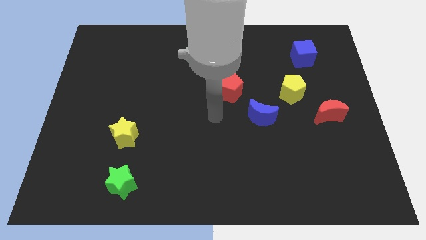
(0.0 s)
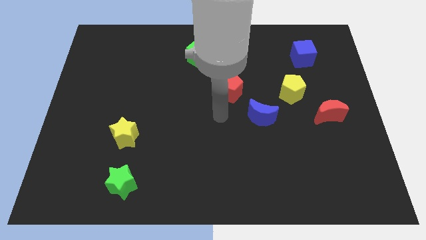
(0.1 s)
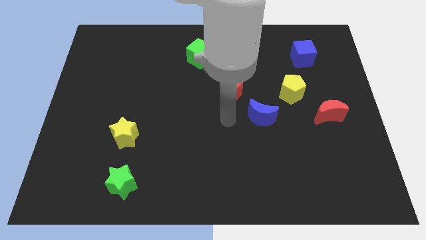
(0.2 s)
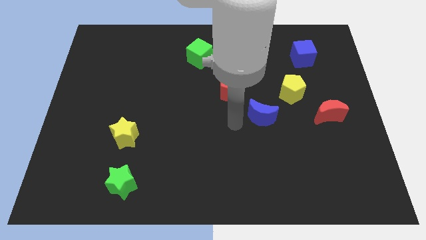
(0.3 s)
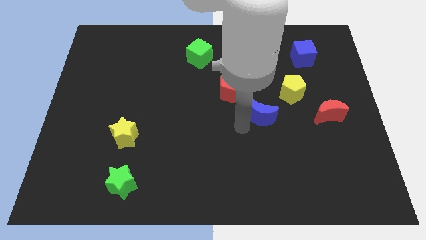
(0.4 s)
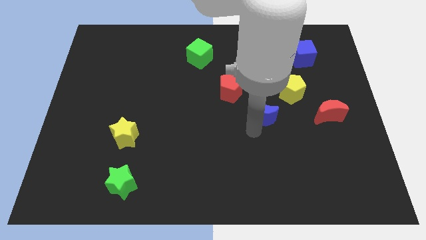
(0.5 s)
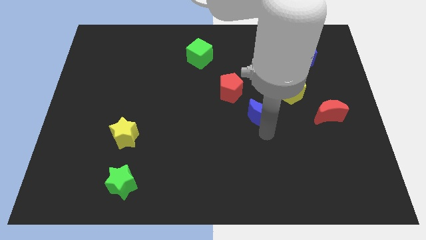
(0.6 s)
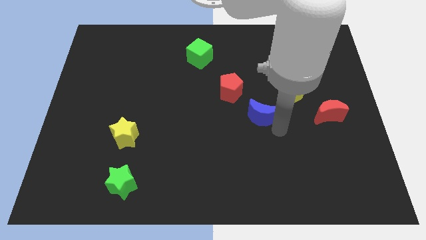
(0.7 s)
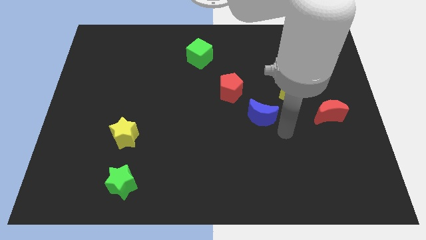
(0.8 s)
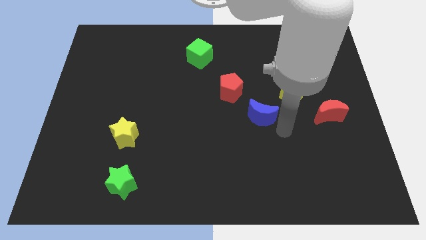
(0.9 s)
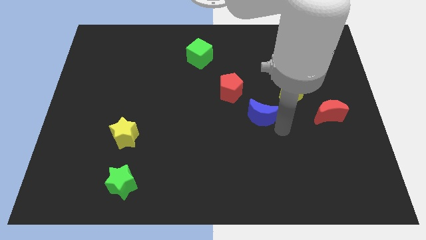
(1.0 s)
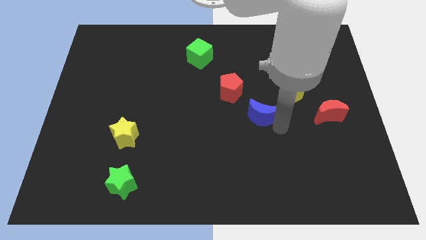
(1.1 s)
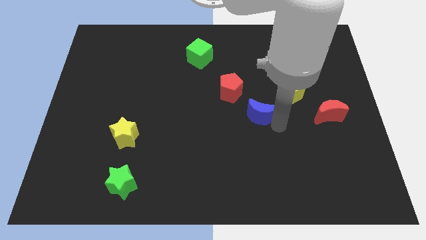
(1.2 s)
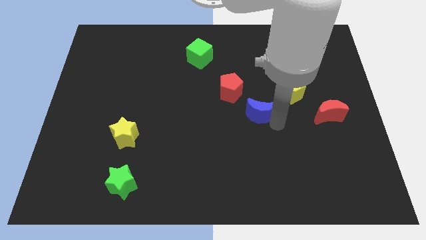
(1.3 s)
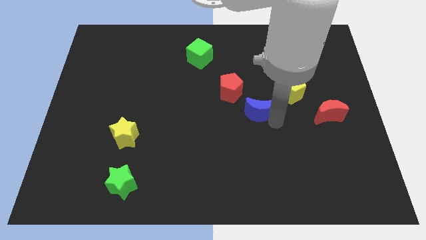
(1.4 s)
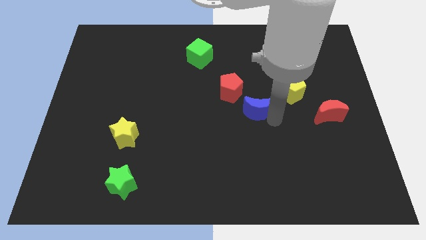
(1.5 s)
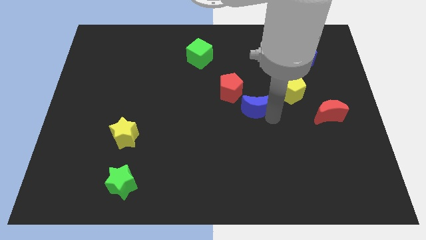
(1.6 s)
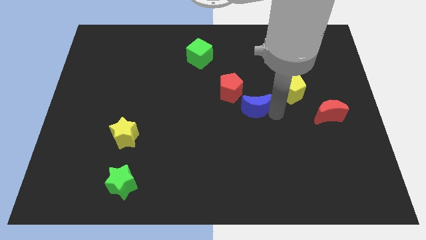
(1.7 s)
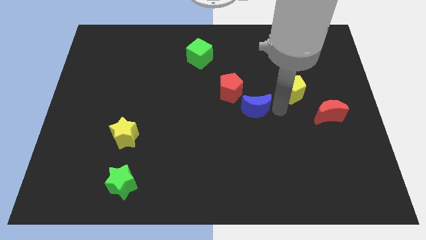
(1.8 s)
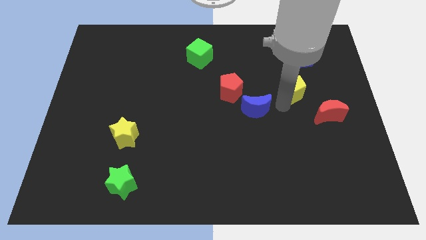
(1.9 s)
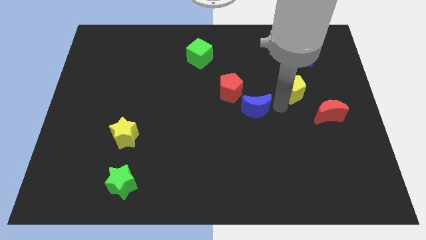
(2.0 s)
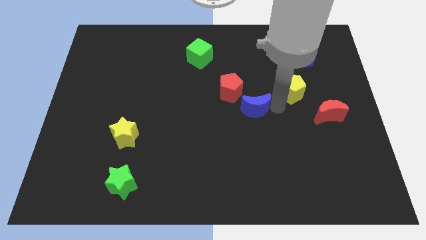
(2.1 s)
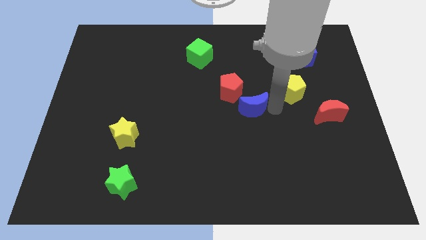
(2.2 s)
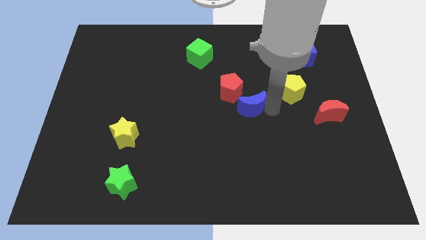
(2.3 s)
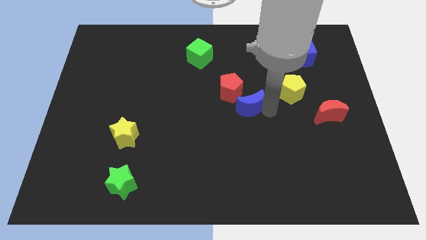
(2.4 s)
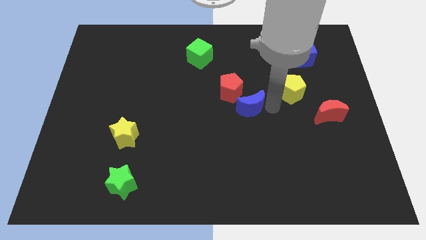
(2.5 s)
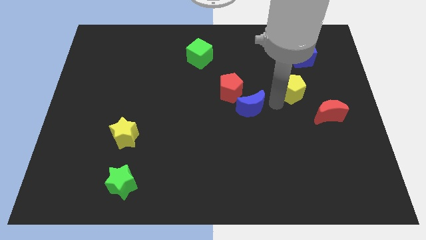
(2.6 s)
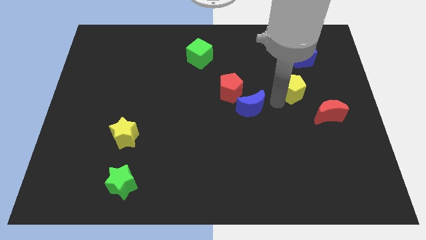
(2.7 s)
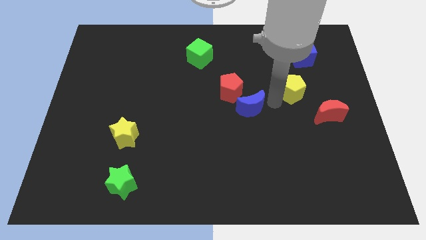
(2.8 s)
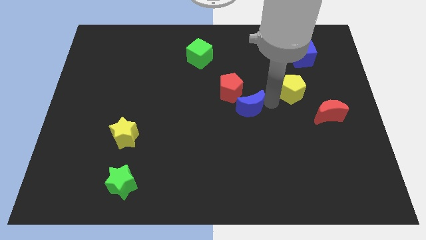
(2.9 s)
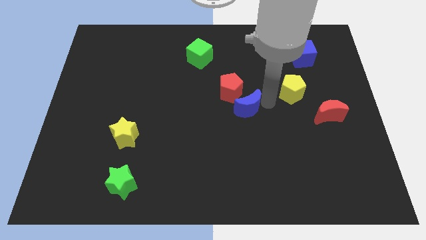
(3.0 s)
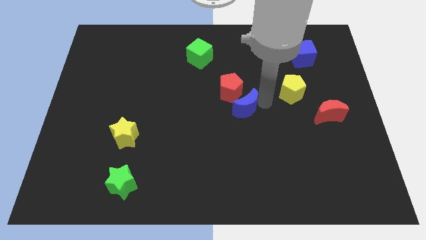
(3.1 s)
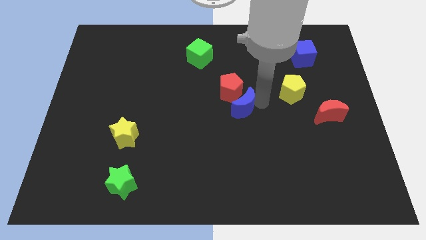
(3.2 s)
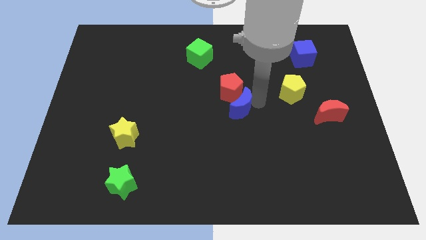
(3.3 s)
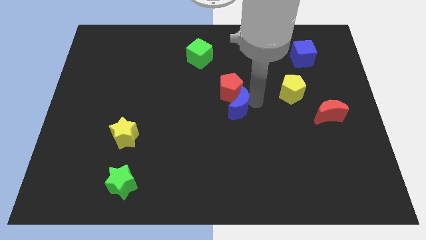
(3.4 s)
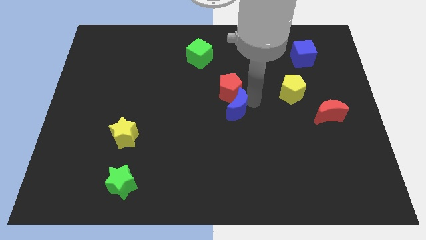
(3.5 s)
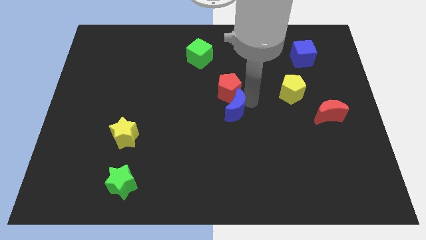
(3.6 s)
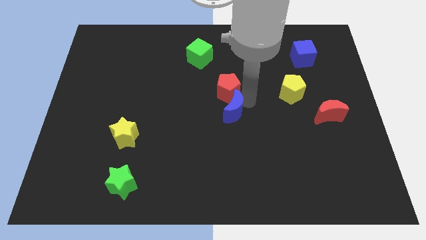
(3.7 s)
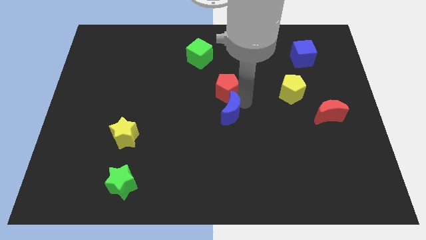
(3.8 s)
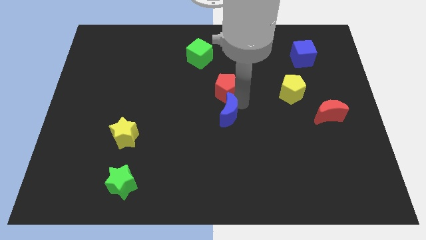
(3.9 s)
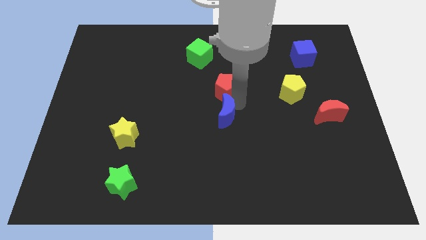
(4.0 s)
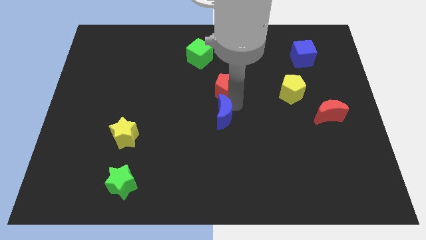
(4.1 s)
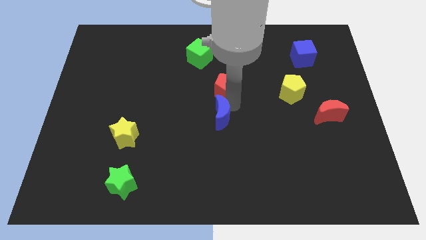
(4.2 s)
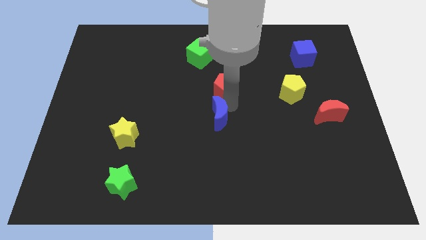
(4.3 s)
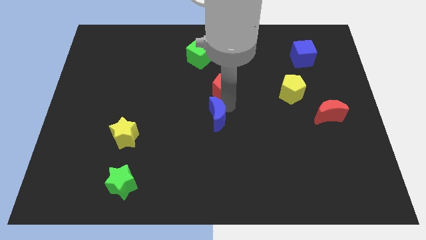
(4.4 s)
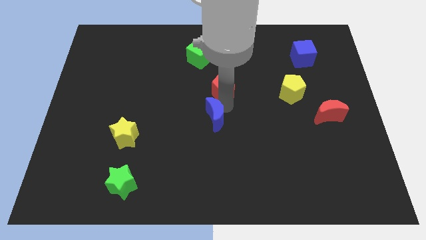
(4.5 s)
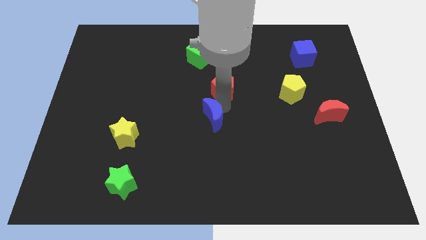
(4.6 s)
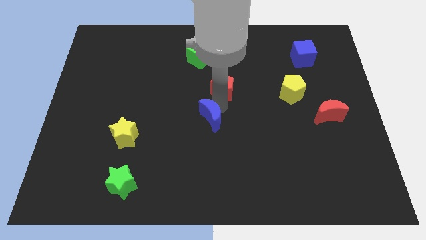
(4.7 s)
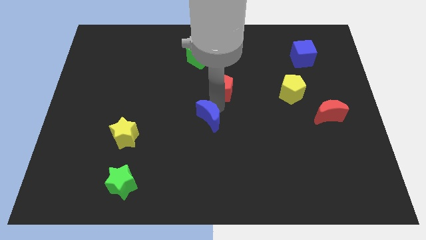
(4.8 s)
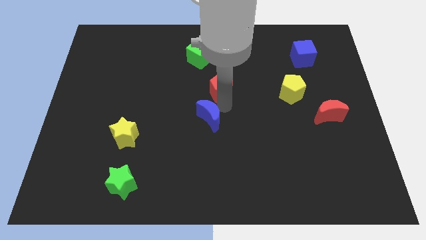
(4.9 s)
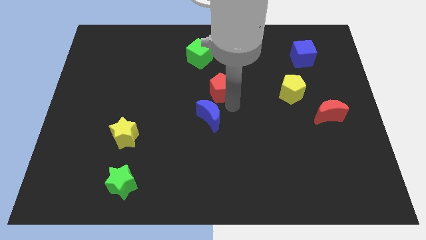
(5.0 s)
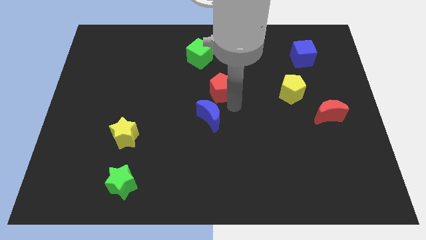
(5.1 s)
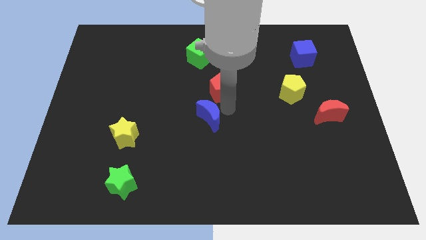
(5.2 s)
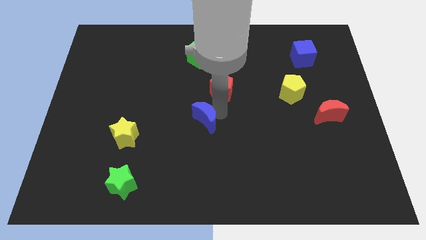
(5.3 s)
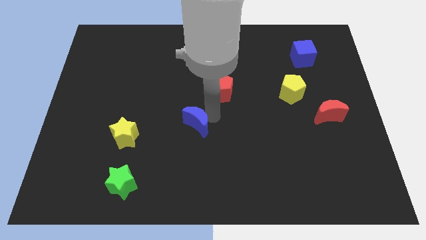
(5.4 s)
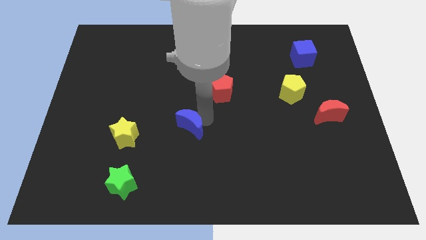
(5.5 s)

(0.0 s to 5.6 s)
push the blue moon to the right of the yellow star

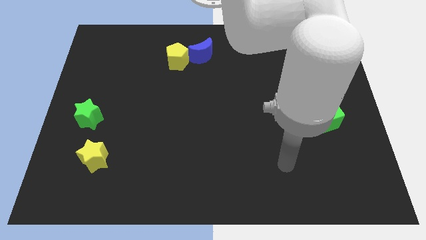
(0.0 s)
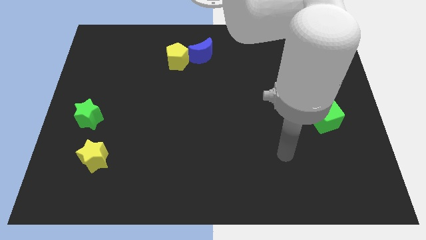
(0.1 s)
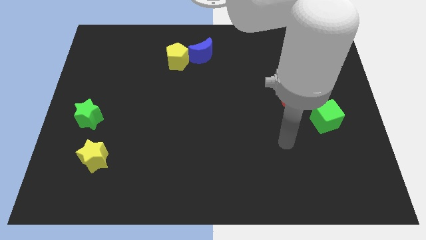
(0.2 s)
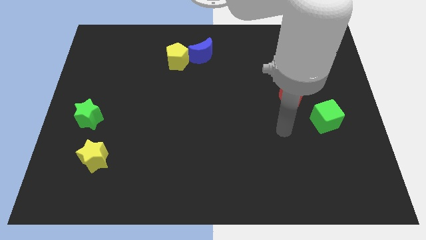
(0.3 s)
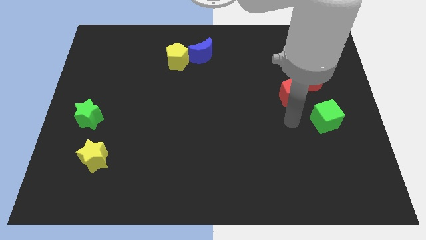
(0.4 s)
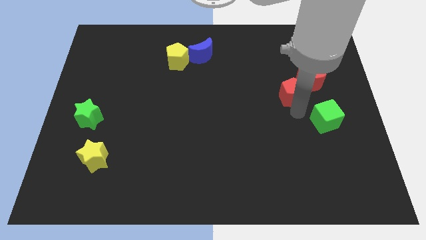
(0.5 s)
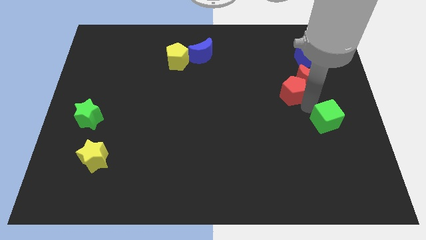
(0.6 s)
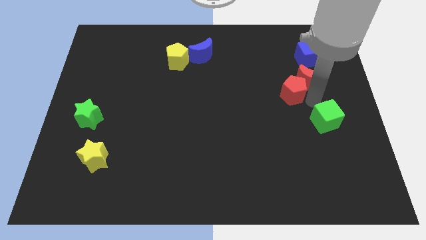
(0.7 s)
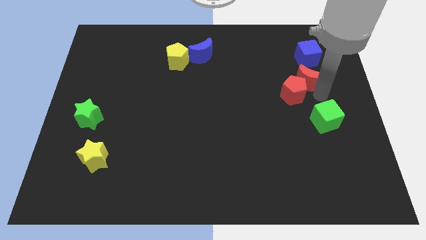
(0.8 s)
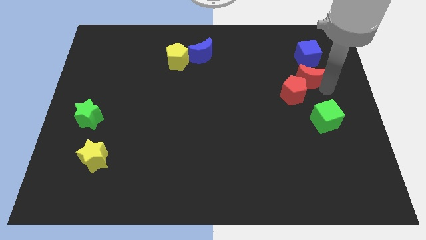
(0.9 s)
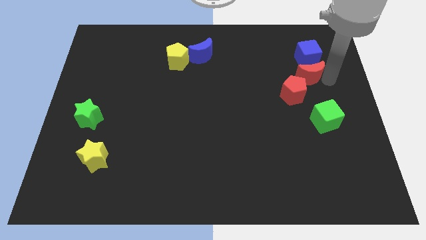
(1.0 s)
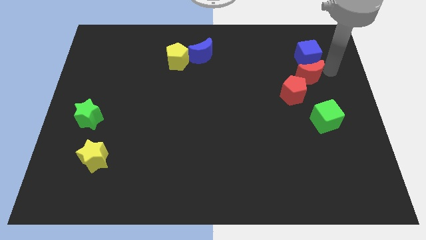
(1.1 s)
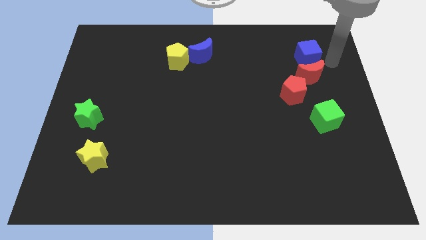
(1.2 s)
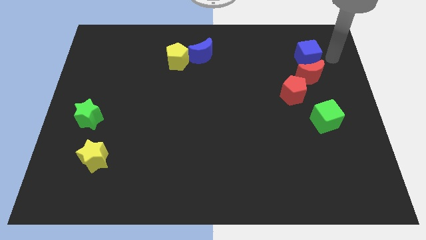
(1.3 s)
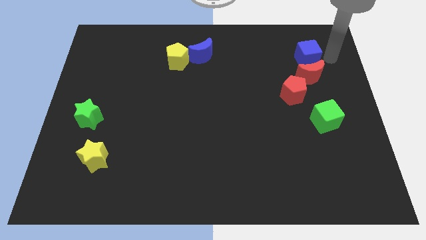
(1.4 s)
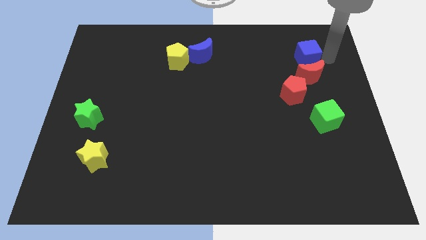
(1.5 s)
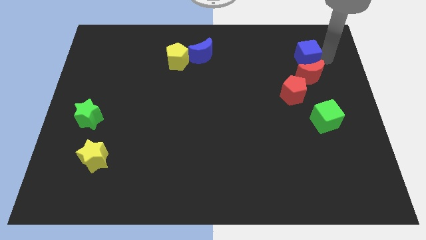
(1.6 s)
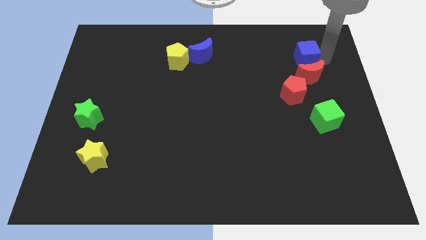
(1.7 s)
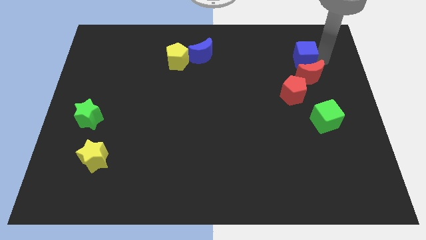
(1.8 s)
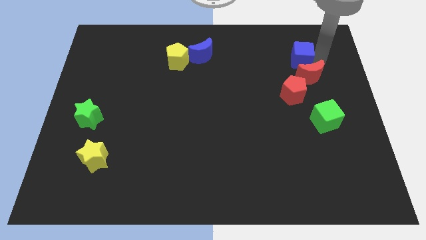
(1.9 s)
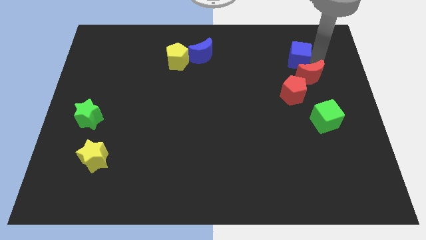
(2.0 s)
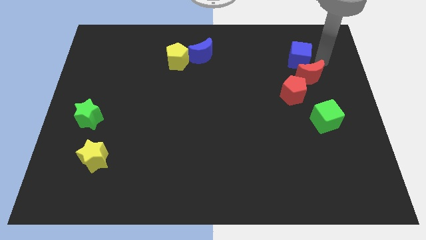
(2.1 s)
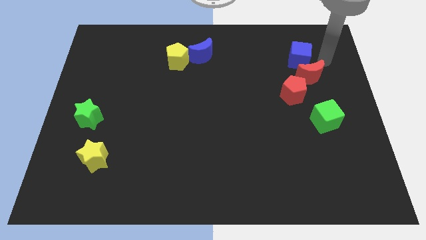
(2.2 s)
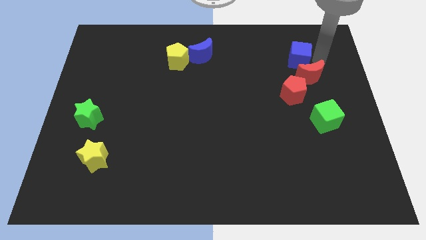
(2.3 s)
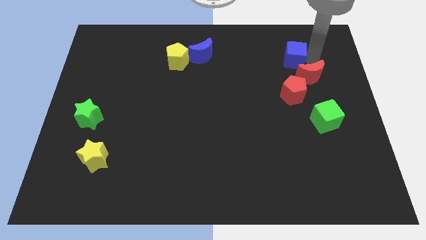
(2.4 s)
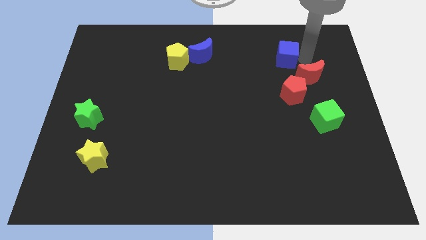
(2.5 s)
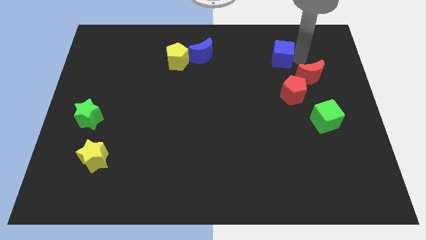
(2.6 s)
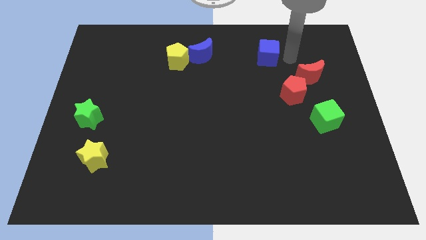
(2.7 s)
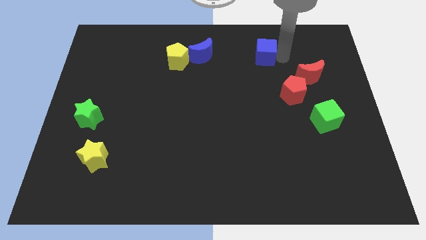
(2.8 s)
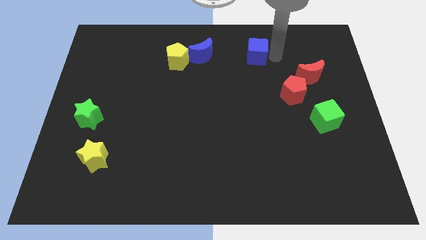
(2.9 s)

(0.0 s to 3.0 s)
put the blue cube to the right of the blue moon
